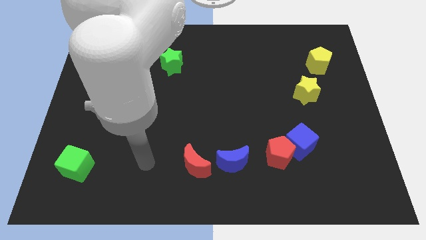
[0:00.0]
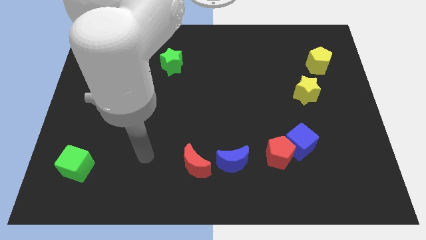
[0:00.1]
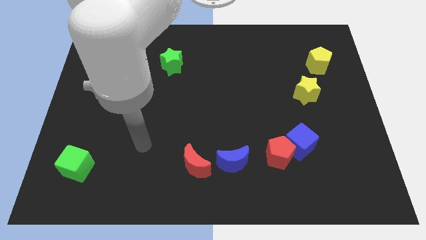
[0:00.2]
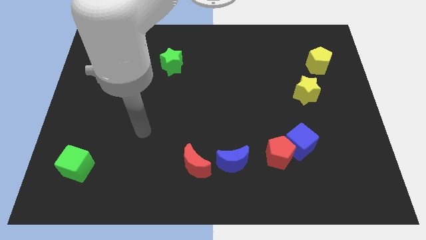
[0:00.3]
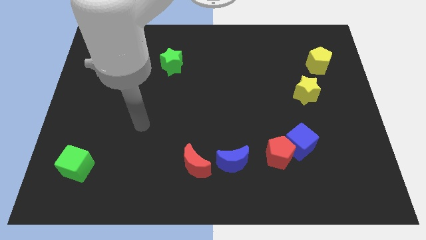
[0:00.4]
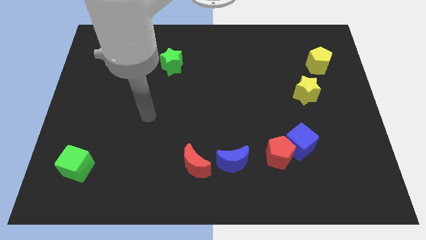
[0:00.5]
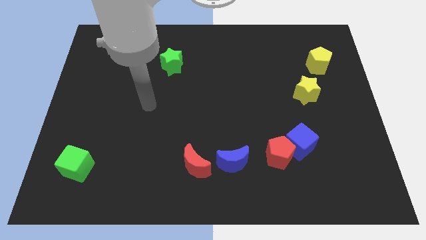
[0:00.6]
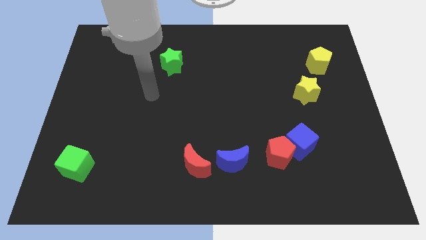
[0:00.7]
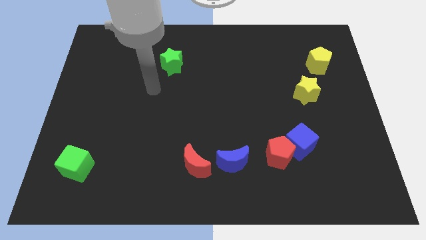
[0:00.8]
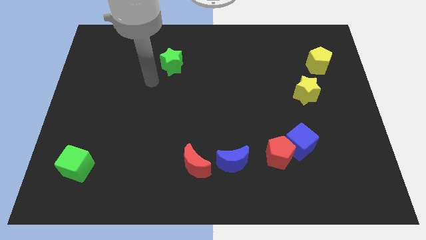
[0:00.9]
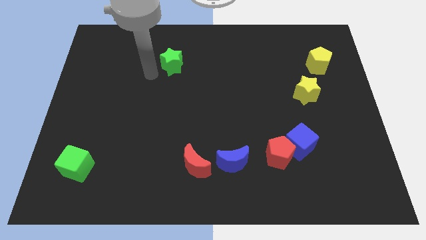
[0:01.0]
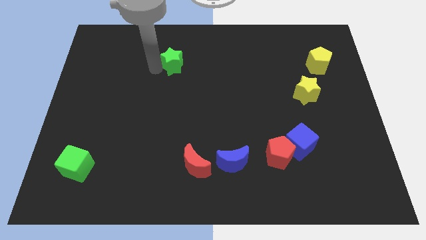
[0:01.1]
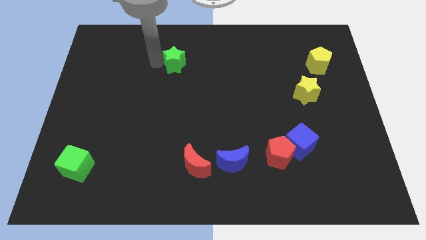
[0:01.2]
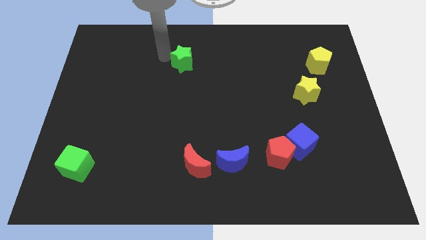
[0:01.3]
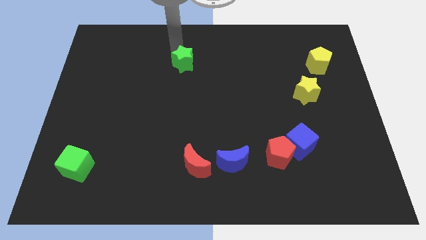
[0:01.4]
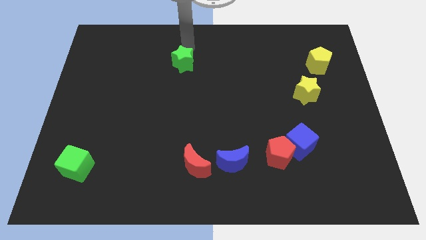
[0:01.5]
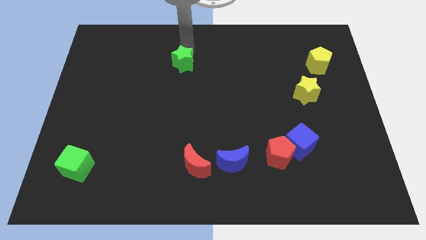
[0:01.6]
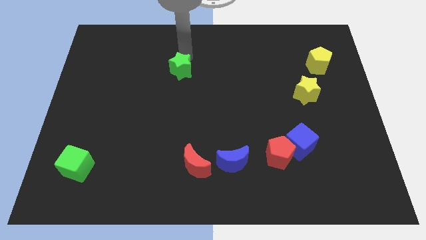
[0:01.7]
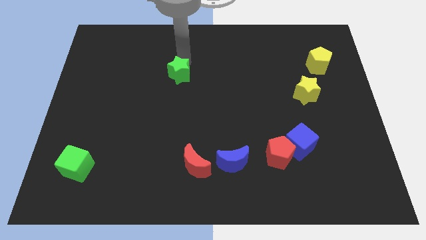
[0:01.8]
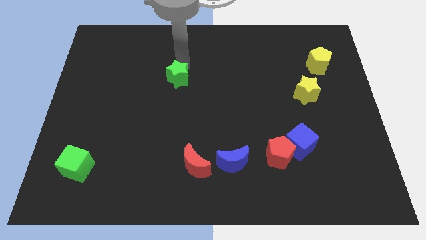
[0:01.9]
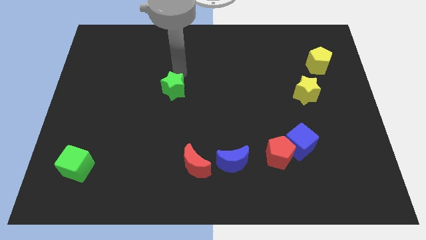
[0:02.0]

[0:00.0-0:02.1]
push the green star down a little

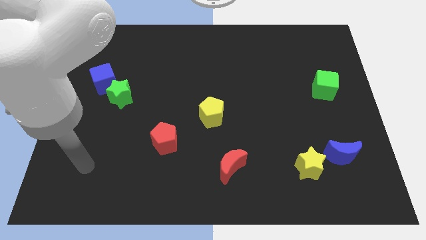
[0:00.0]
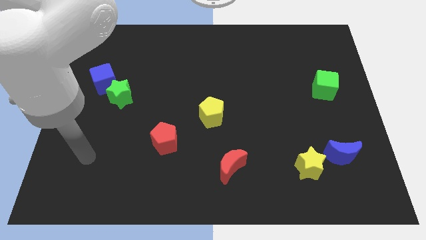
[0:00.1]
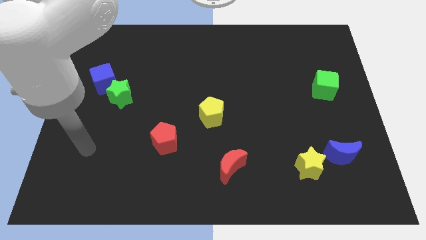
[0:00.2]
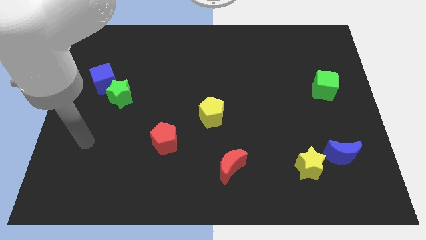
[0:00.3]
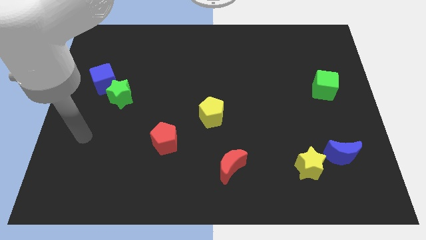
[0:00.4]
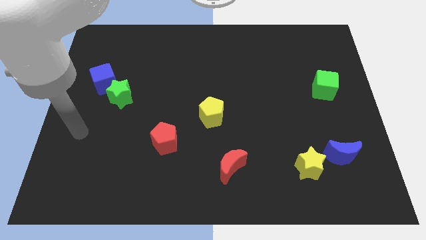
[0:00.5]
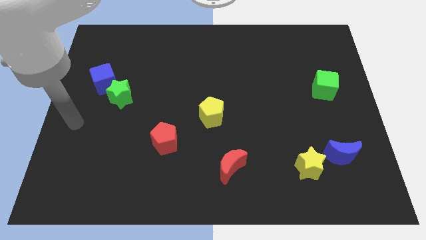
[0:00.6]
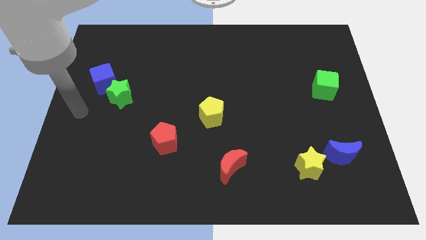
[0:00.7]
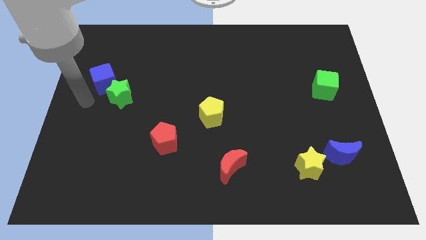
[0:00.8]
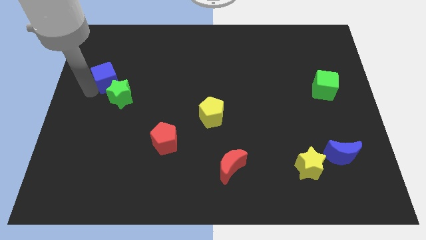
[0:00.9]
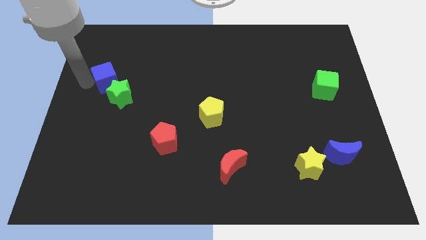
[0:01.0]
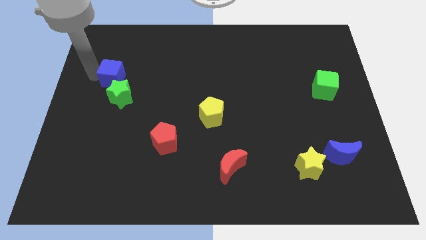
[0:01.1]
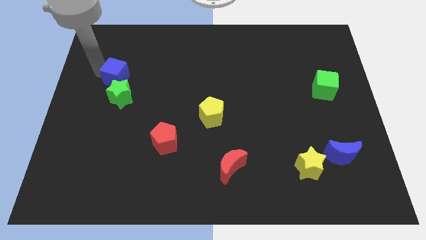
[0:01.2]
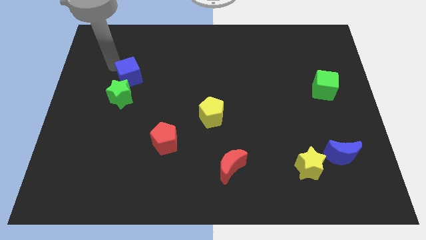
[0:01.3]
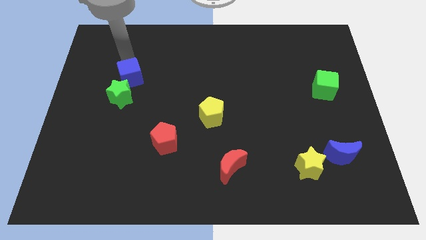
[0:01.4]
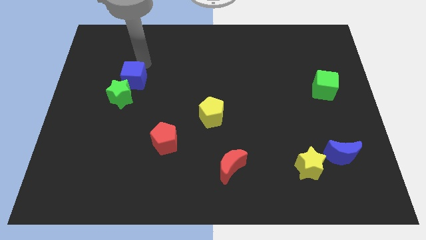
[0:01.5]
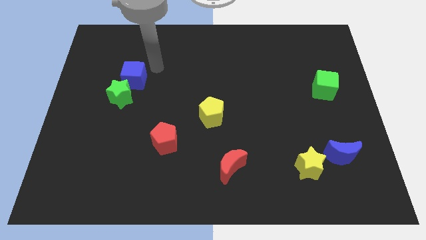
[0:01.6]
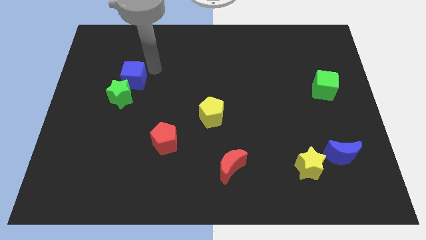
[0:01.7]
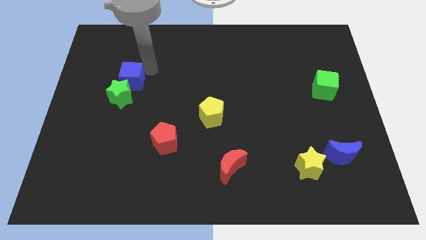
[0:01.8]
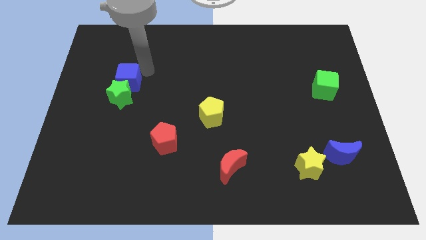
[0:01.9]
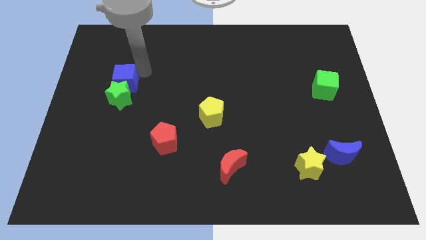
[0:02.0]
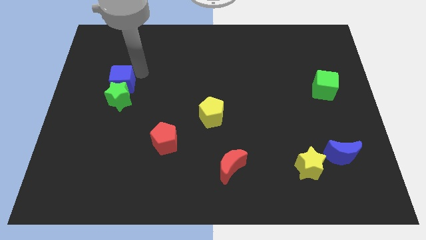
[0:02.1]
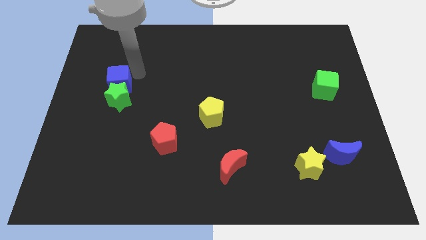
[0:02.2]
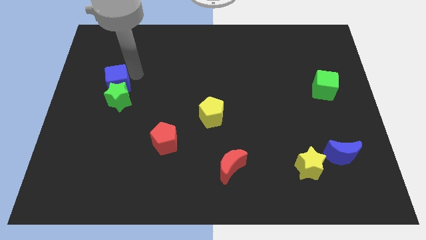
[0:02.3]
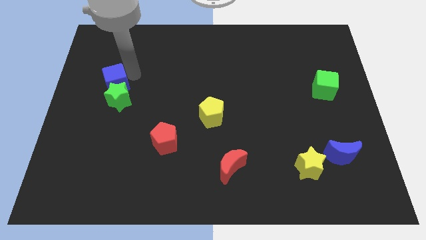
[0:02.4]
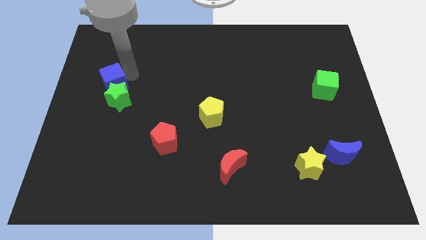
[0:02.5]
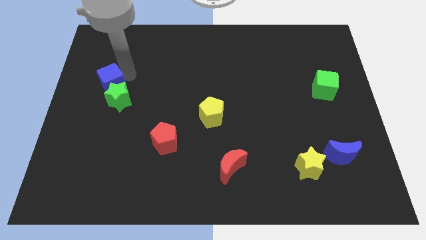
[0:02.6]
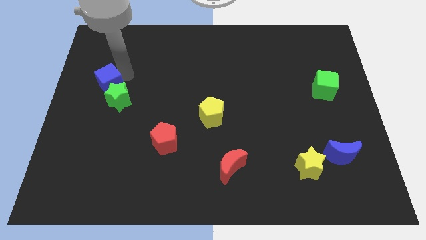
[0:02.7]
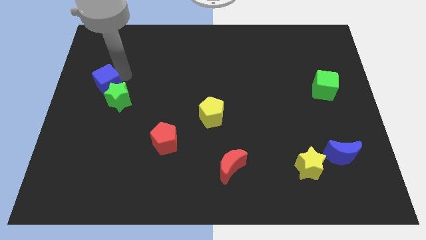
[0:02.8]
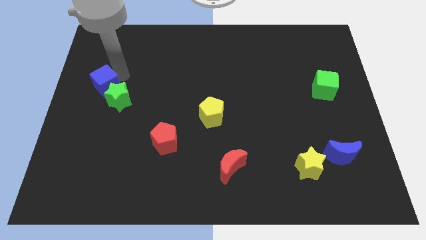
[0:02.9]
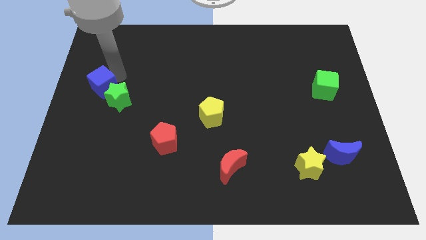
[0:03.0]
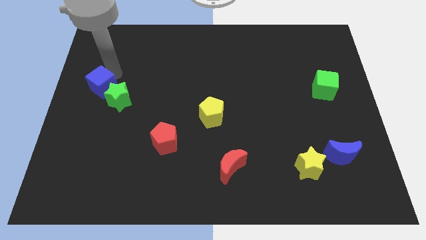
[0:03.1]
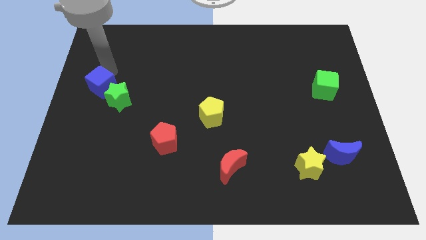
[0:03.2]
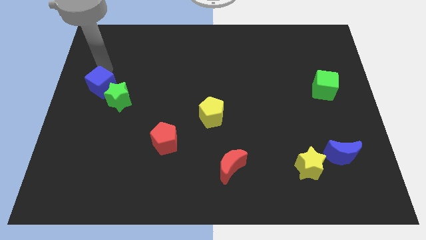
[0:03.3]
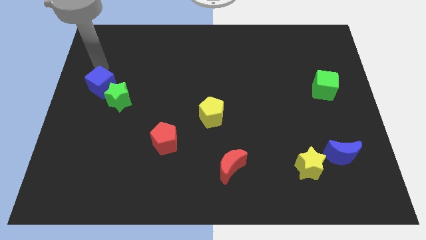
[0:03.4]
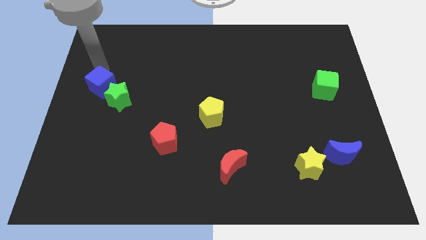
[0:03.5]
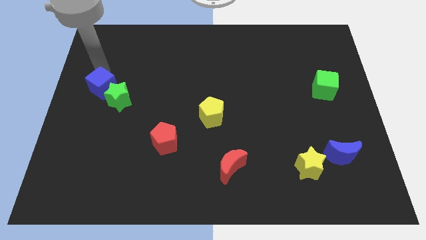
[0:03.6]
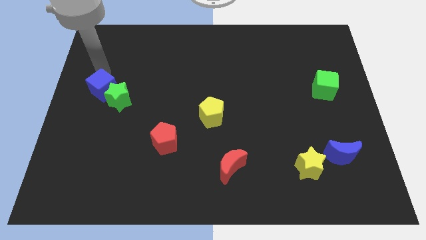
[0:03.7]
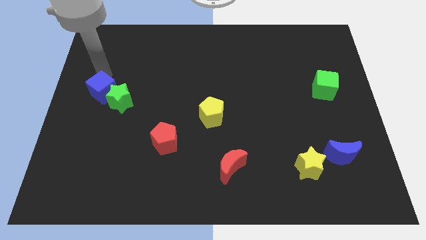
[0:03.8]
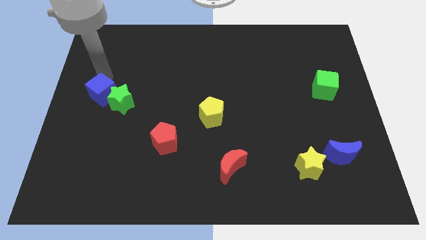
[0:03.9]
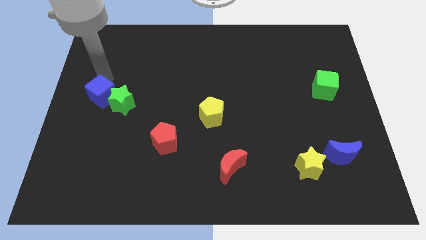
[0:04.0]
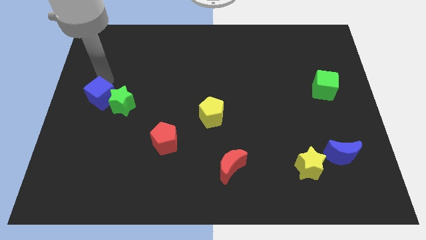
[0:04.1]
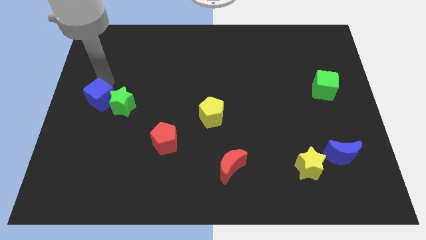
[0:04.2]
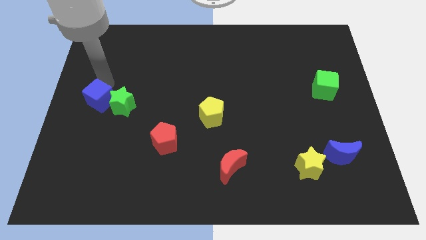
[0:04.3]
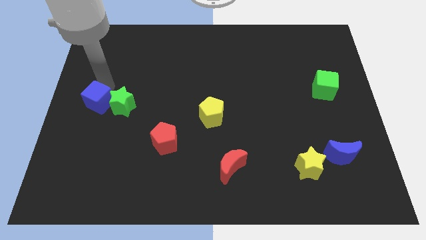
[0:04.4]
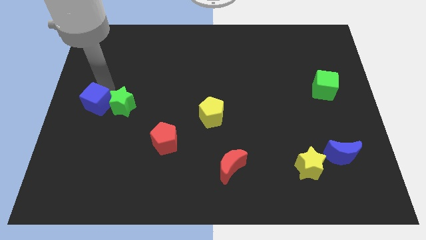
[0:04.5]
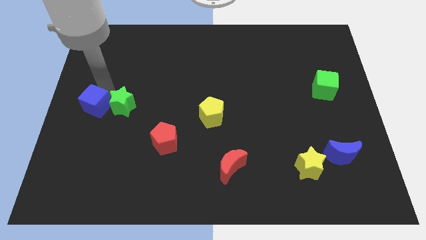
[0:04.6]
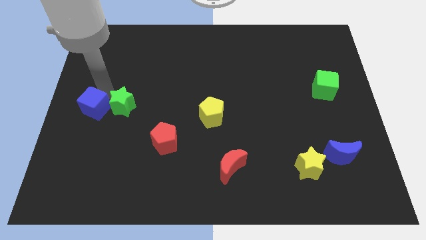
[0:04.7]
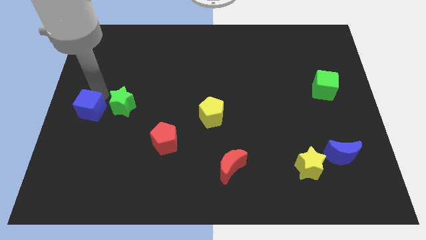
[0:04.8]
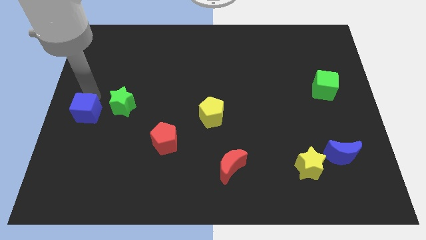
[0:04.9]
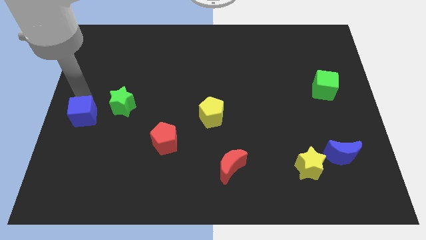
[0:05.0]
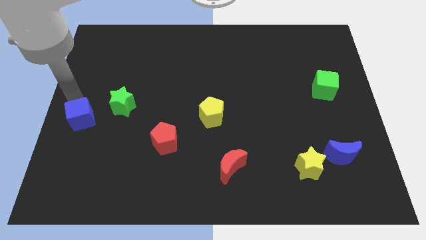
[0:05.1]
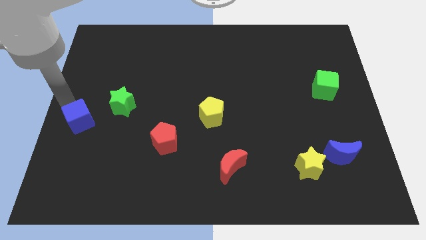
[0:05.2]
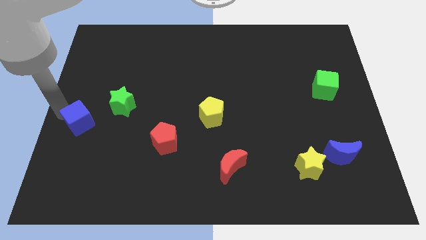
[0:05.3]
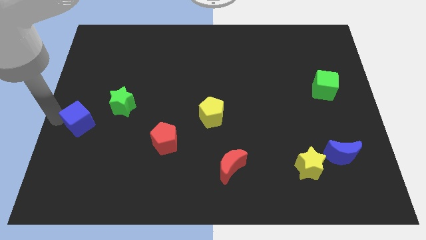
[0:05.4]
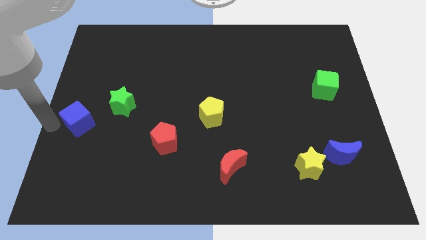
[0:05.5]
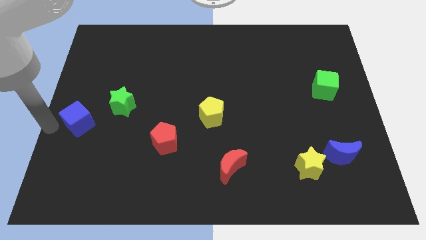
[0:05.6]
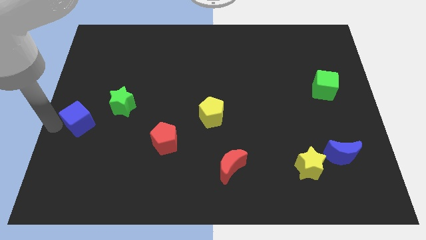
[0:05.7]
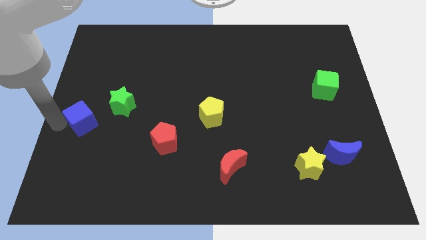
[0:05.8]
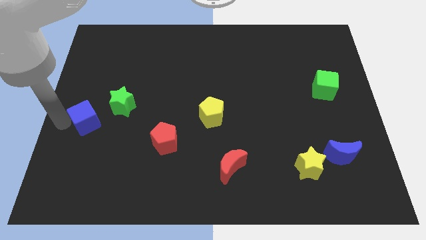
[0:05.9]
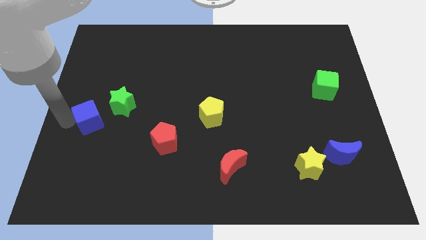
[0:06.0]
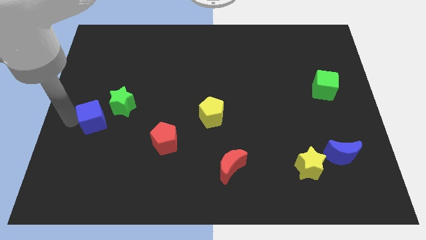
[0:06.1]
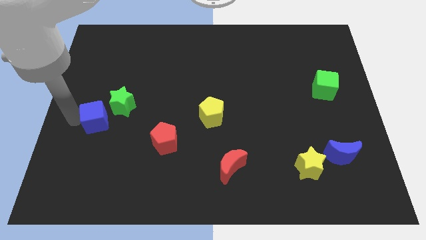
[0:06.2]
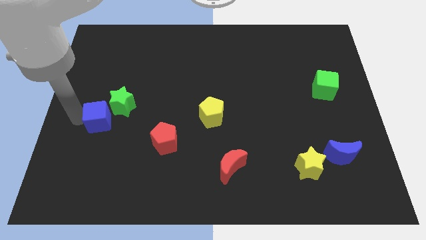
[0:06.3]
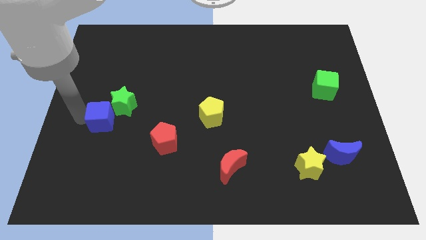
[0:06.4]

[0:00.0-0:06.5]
slightly push the blue cube diagonally down and to the right
